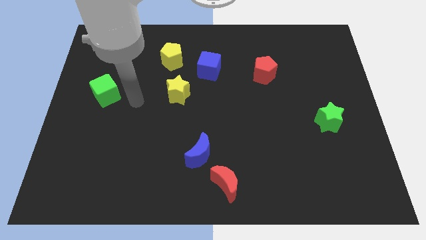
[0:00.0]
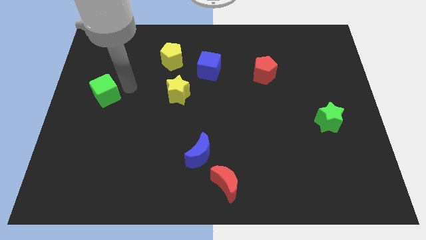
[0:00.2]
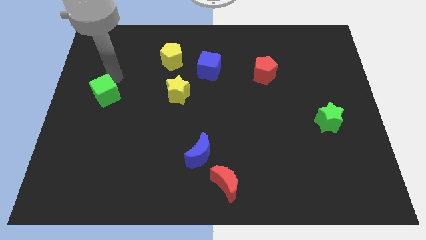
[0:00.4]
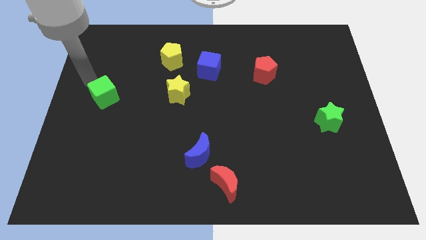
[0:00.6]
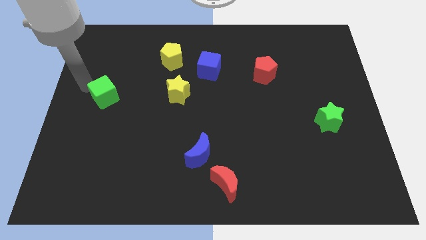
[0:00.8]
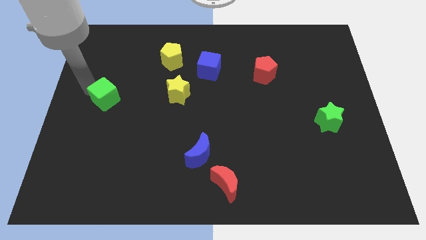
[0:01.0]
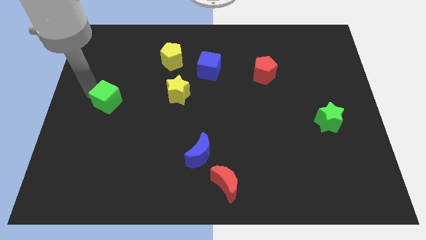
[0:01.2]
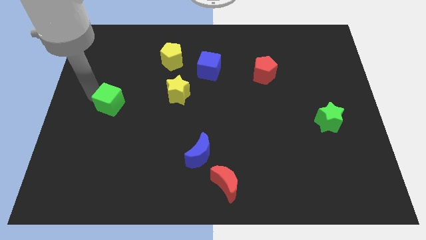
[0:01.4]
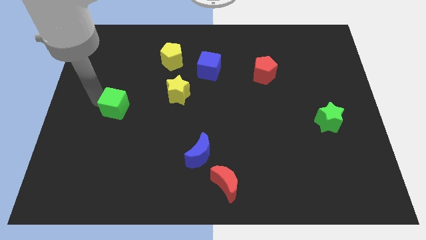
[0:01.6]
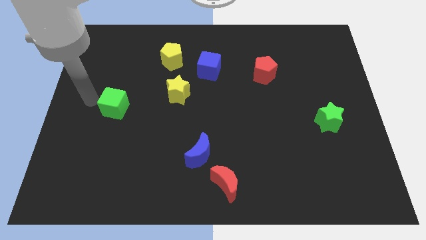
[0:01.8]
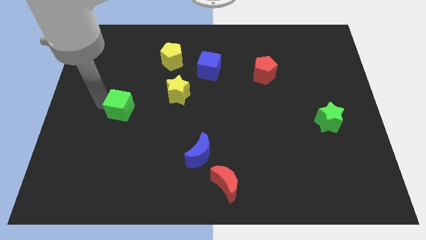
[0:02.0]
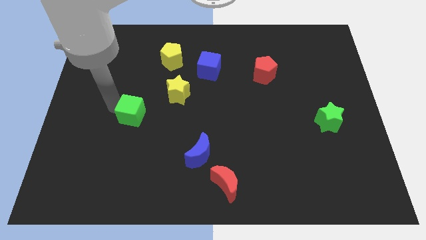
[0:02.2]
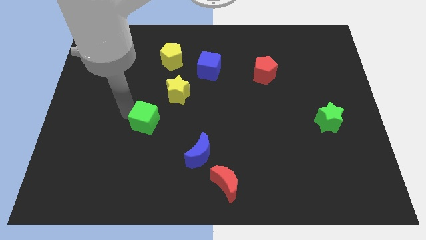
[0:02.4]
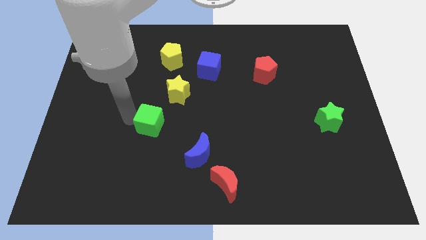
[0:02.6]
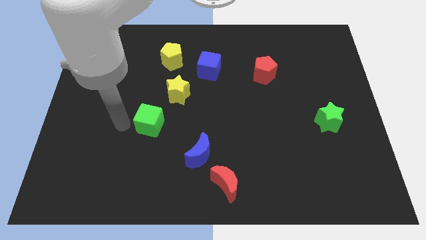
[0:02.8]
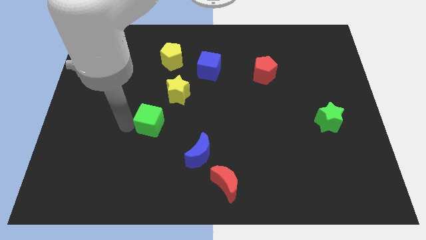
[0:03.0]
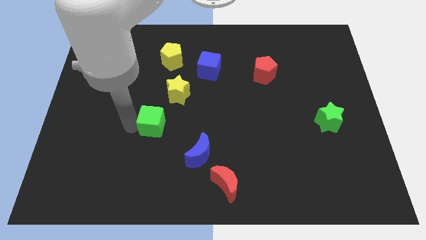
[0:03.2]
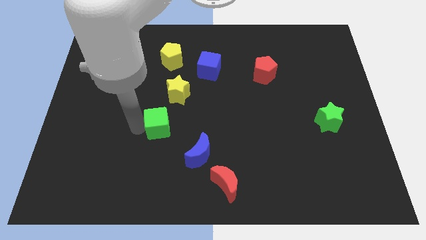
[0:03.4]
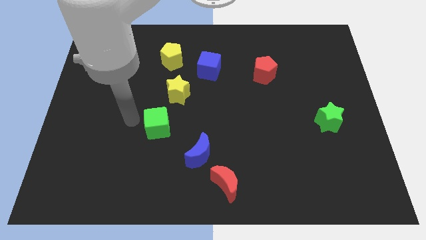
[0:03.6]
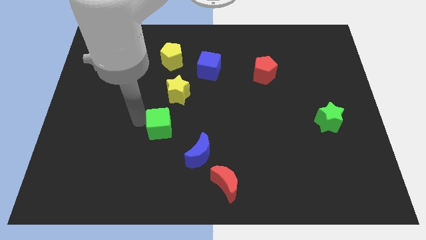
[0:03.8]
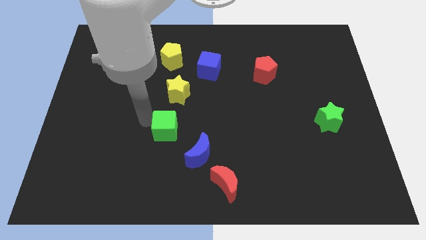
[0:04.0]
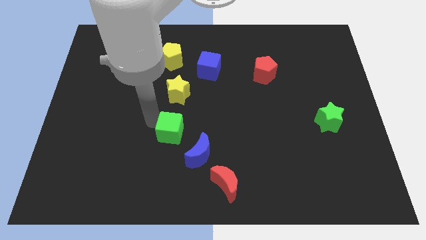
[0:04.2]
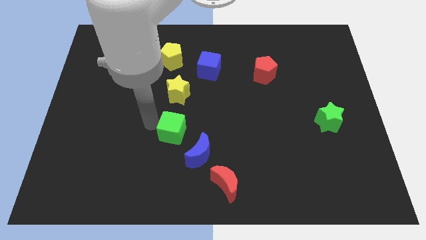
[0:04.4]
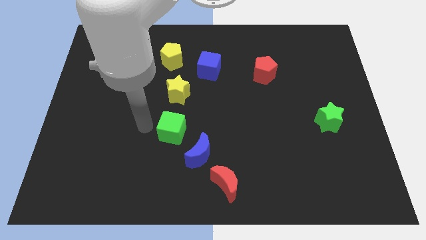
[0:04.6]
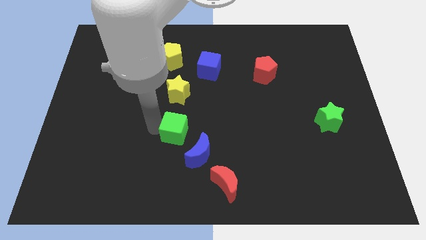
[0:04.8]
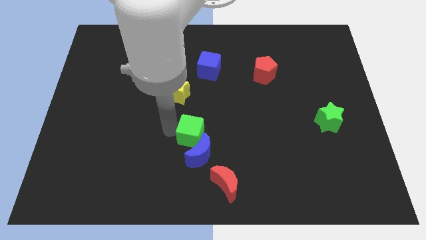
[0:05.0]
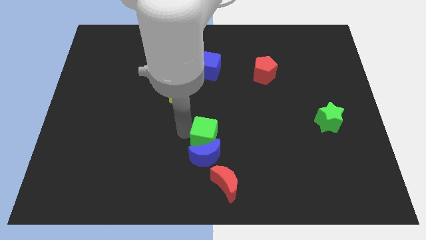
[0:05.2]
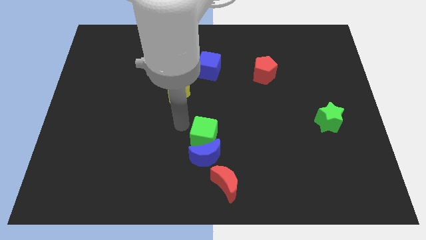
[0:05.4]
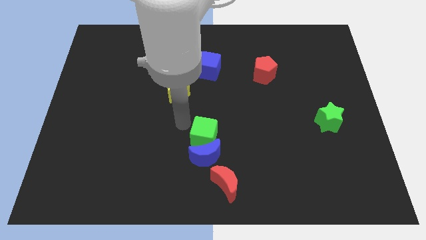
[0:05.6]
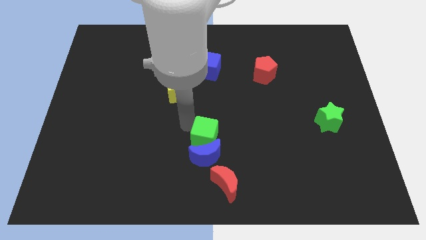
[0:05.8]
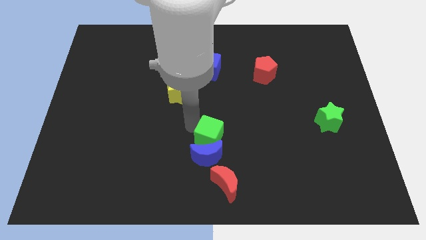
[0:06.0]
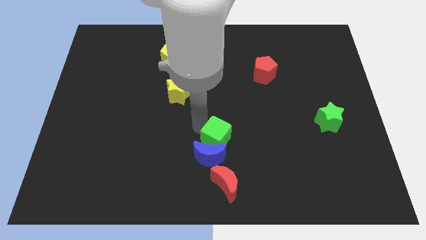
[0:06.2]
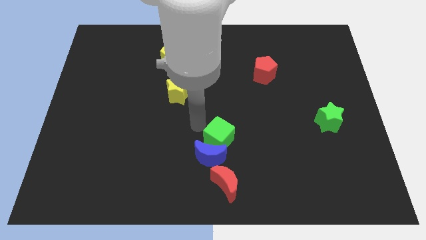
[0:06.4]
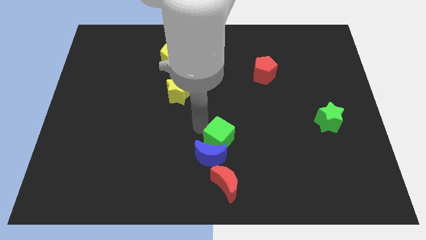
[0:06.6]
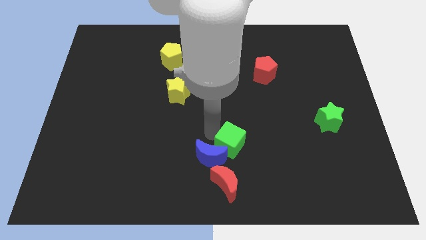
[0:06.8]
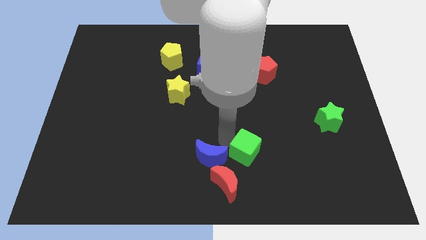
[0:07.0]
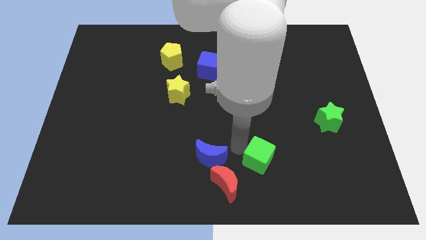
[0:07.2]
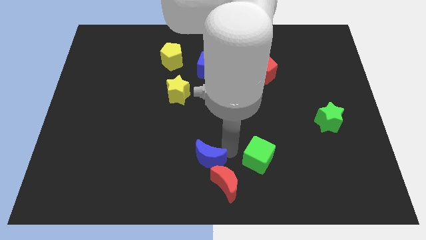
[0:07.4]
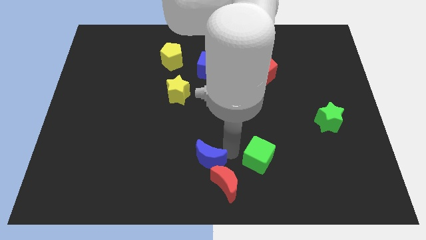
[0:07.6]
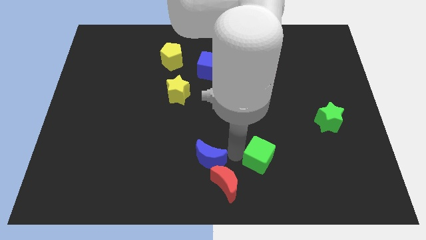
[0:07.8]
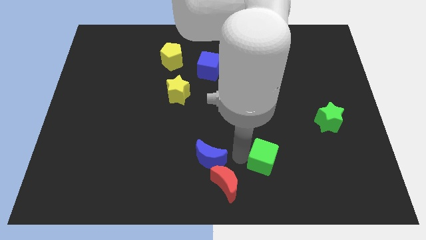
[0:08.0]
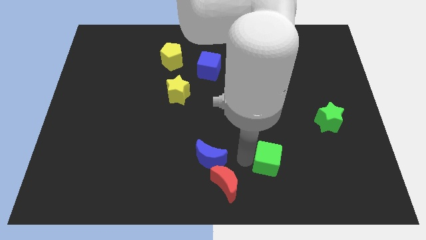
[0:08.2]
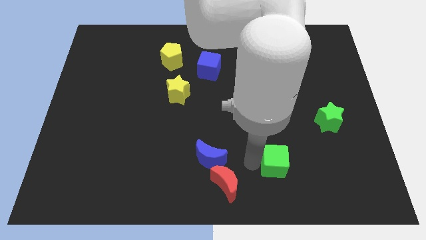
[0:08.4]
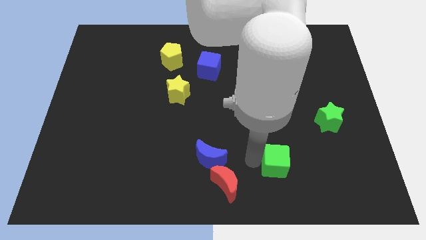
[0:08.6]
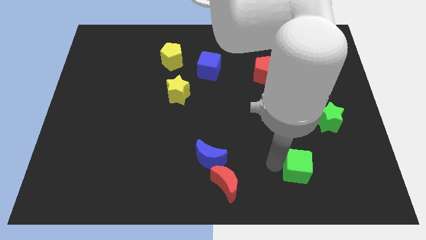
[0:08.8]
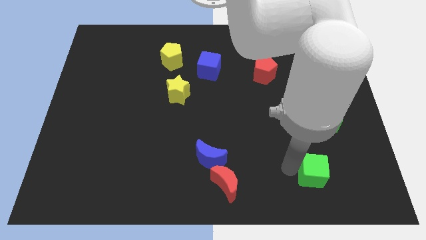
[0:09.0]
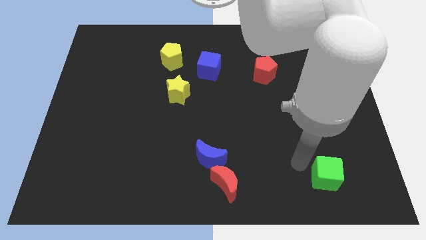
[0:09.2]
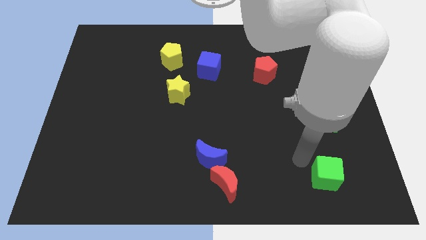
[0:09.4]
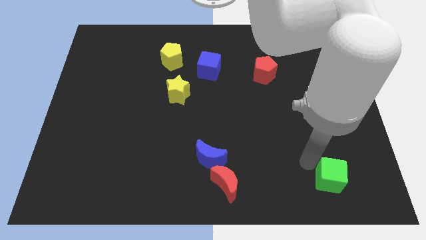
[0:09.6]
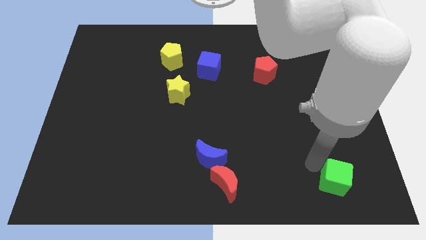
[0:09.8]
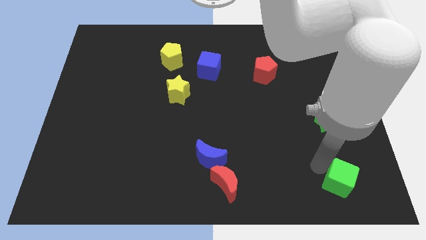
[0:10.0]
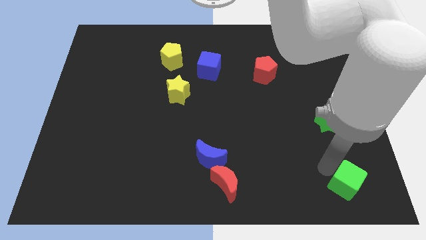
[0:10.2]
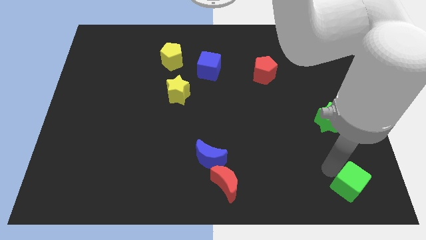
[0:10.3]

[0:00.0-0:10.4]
put the green cube to the bottom right

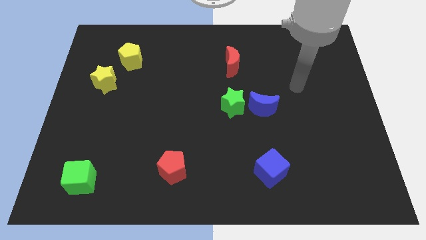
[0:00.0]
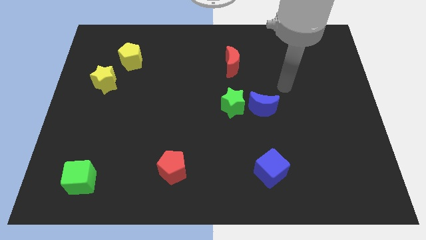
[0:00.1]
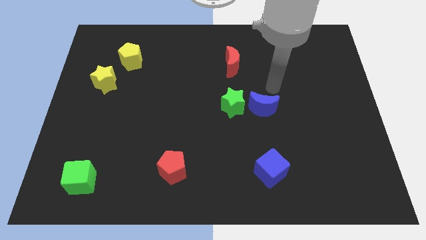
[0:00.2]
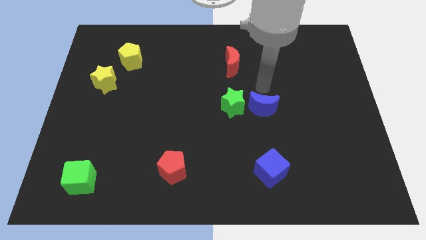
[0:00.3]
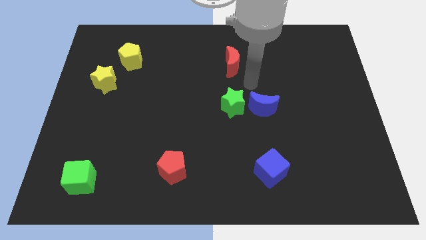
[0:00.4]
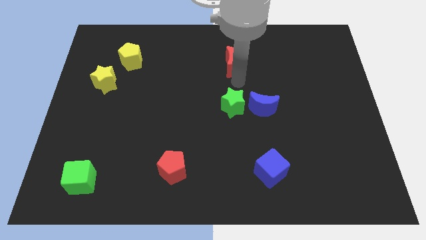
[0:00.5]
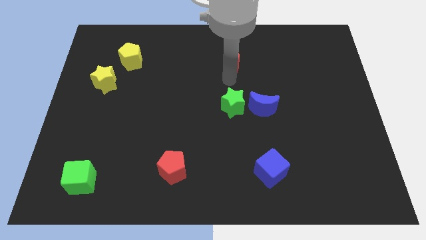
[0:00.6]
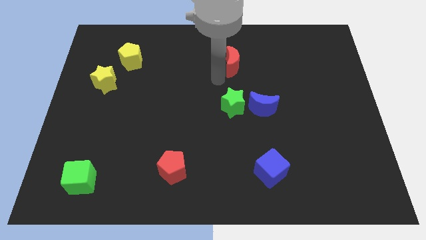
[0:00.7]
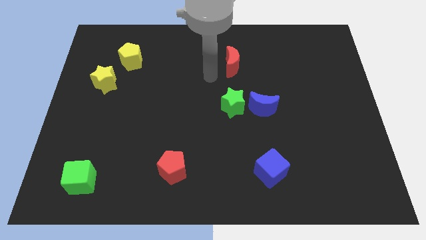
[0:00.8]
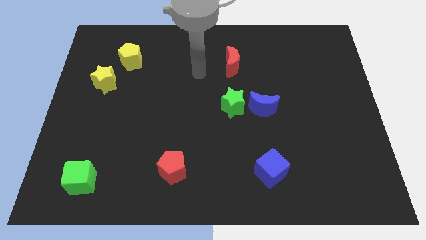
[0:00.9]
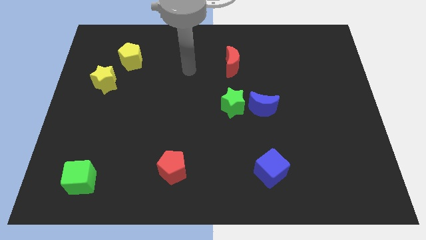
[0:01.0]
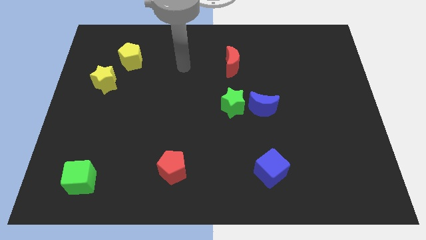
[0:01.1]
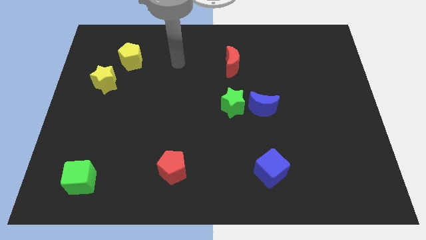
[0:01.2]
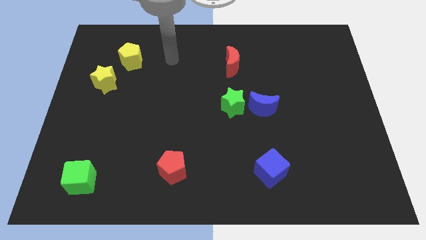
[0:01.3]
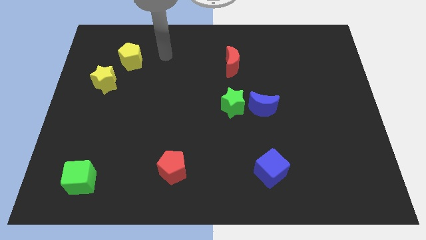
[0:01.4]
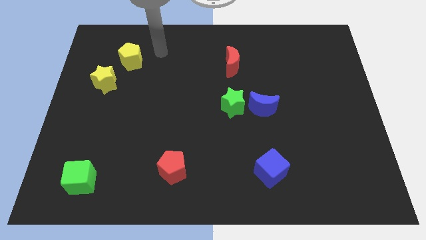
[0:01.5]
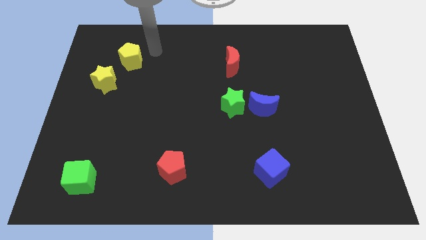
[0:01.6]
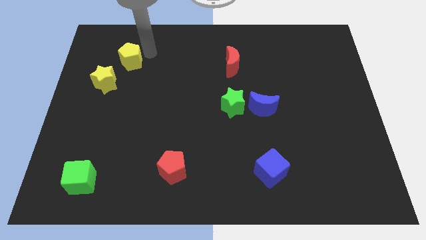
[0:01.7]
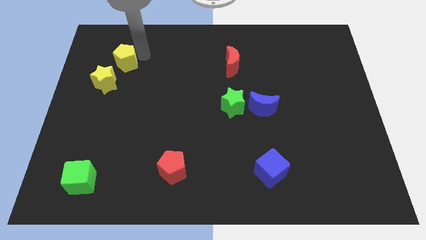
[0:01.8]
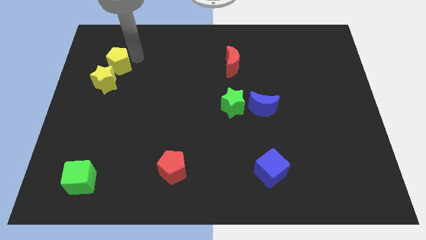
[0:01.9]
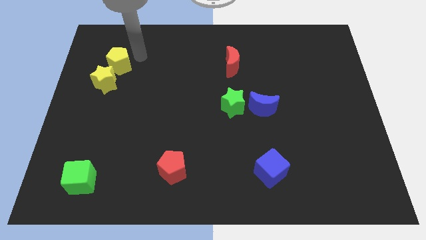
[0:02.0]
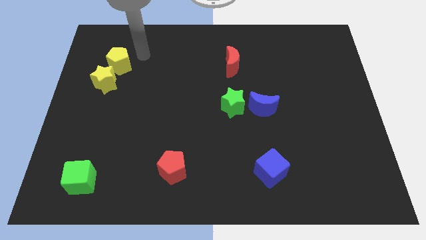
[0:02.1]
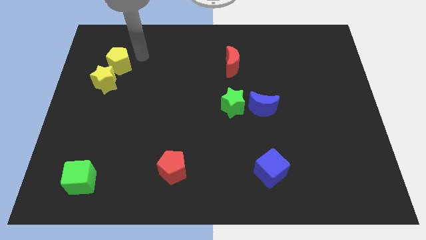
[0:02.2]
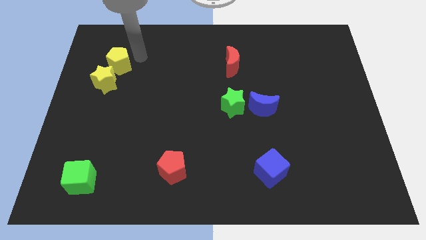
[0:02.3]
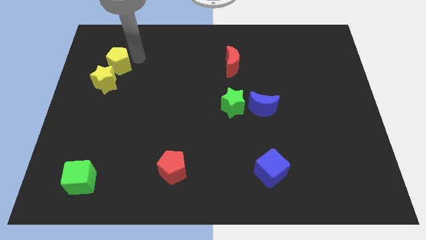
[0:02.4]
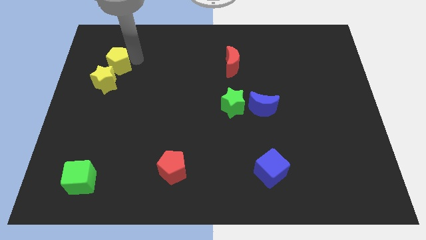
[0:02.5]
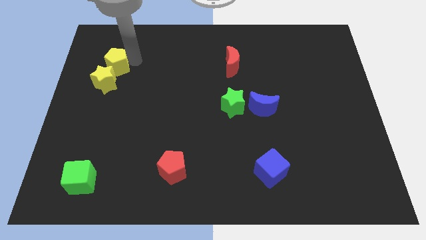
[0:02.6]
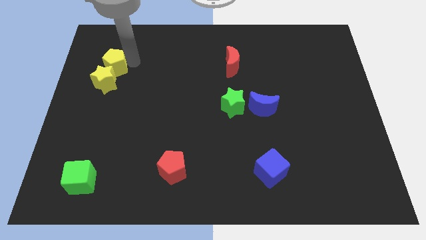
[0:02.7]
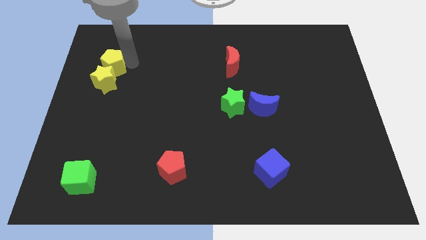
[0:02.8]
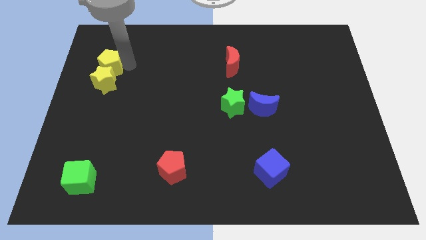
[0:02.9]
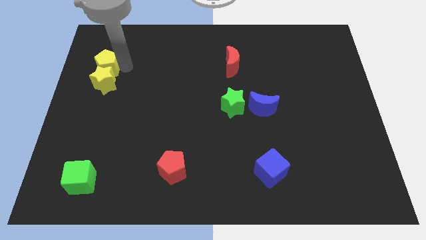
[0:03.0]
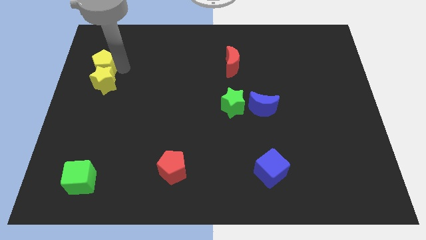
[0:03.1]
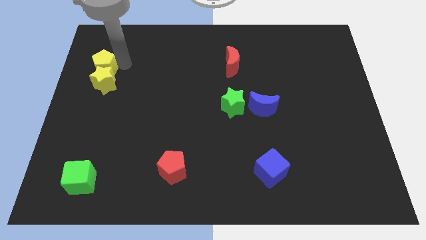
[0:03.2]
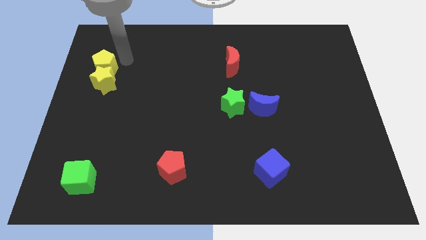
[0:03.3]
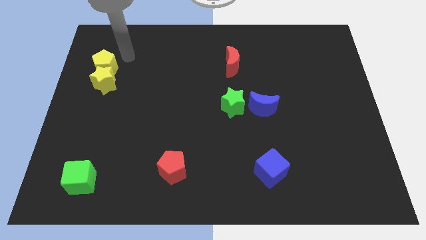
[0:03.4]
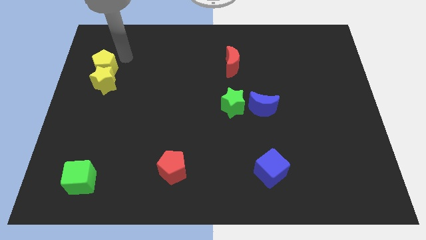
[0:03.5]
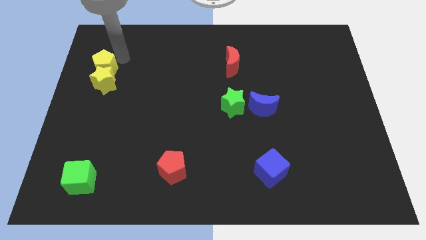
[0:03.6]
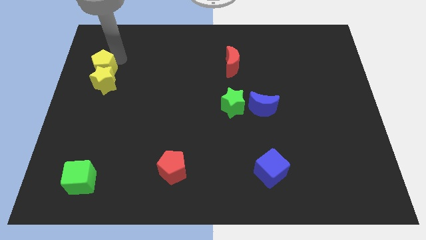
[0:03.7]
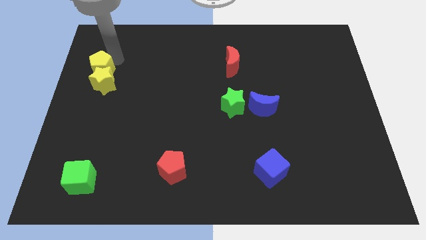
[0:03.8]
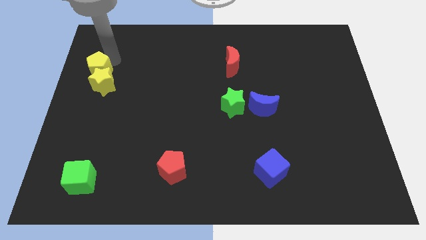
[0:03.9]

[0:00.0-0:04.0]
push the yellow pentagon to the left side
